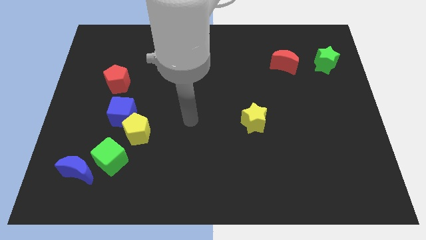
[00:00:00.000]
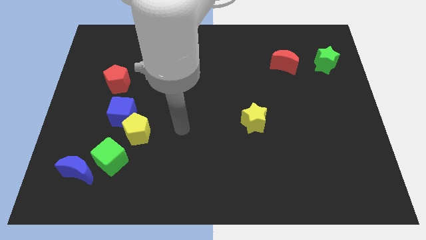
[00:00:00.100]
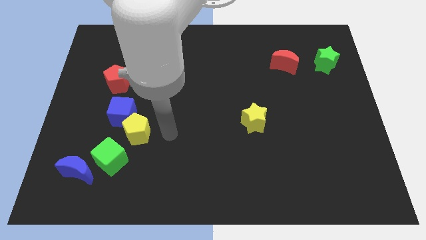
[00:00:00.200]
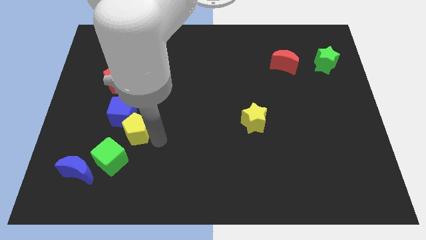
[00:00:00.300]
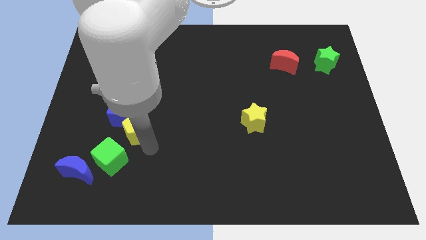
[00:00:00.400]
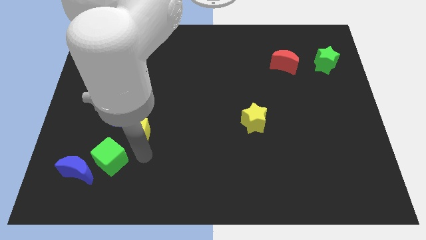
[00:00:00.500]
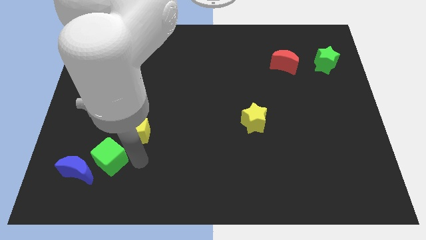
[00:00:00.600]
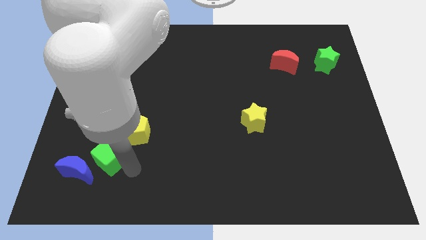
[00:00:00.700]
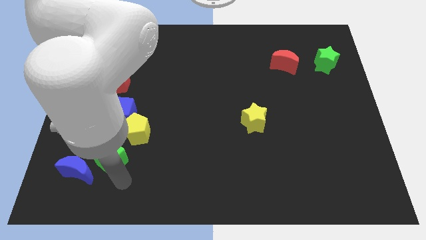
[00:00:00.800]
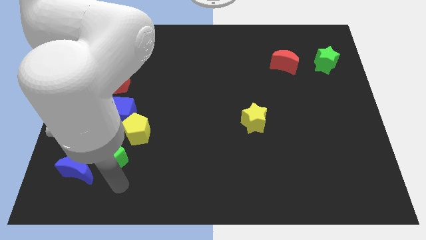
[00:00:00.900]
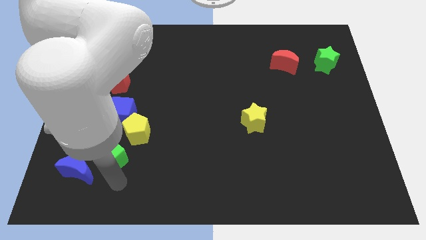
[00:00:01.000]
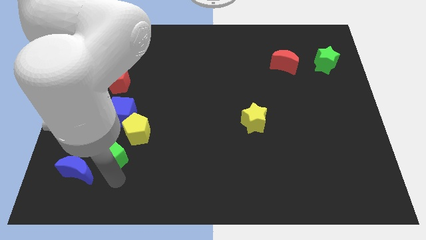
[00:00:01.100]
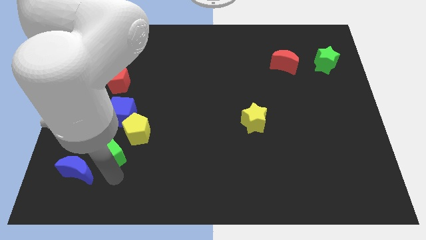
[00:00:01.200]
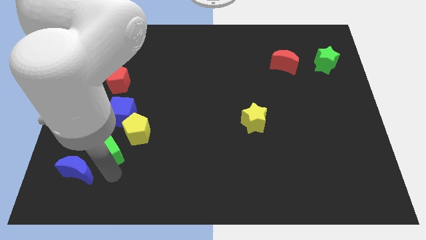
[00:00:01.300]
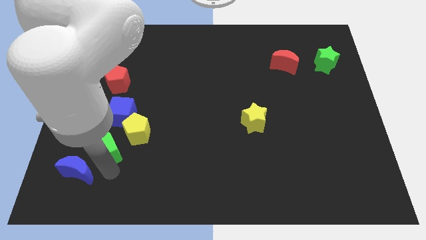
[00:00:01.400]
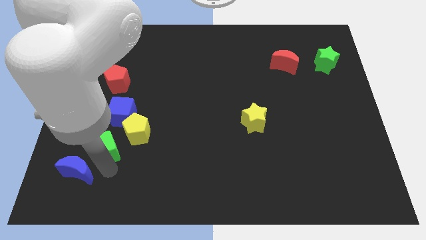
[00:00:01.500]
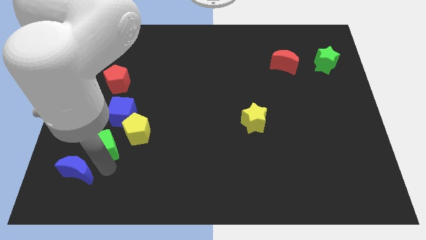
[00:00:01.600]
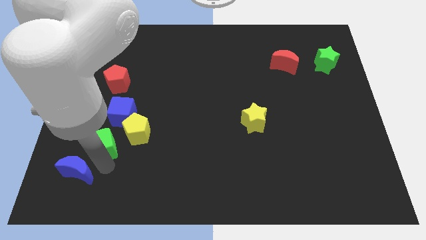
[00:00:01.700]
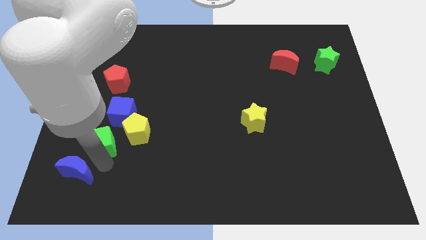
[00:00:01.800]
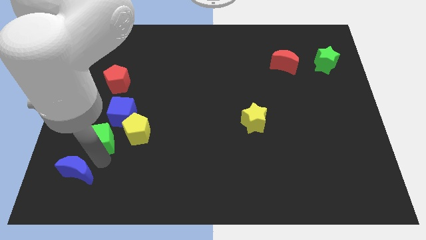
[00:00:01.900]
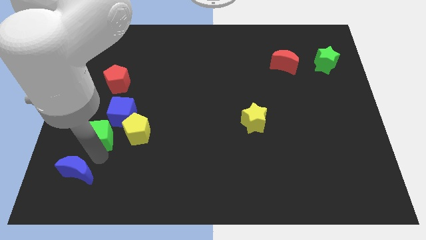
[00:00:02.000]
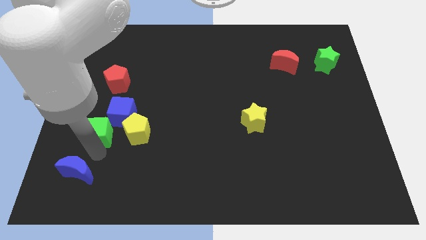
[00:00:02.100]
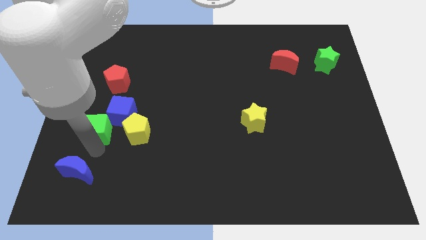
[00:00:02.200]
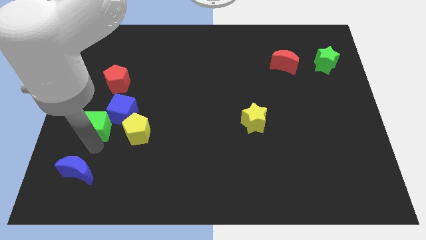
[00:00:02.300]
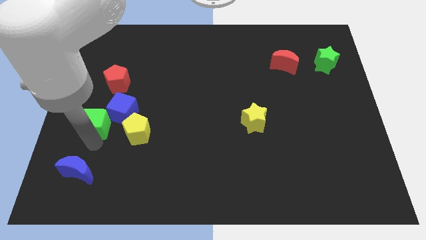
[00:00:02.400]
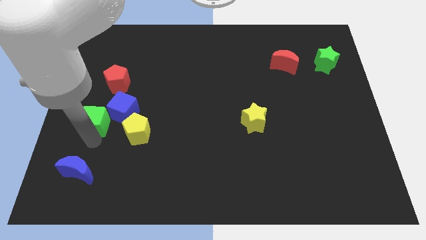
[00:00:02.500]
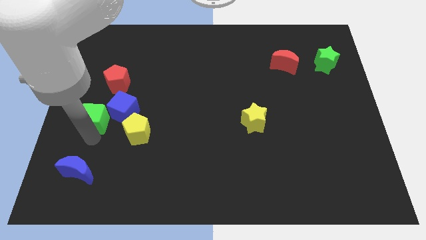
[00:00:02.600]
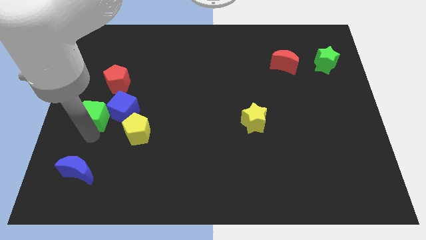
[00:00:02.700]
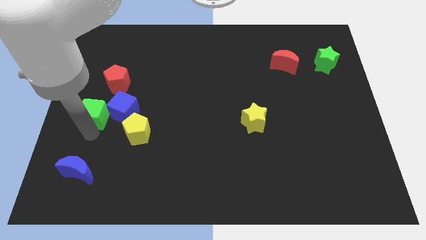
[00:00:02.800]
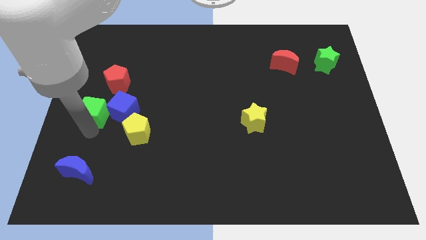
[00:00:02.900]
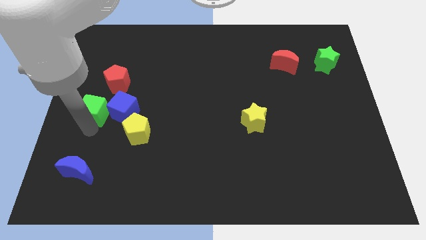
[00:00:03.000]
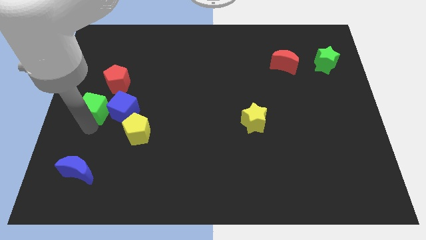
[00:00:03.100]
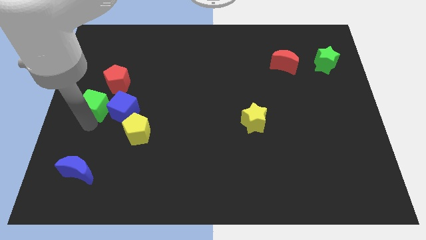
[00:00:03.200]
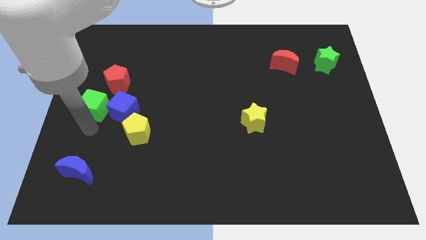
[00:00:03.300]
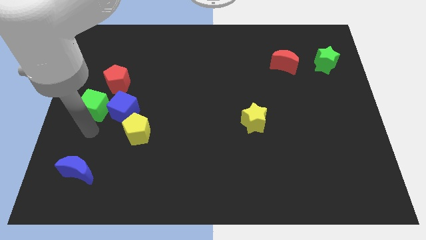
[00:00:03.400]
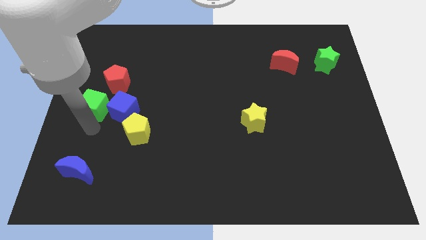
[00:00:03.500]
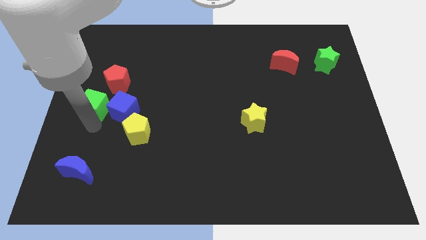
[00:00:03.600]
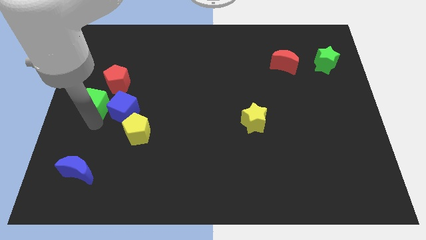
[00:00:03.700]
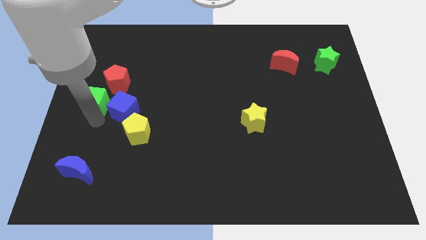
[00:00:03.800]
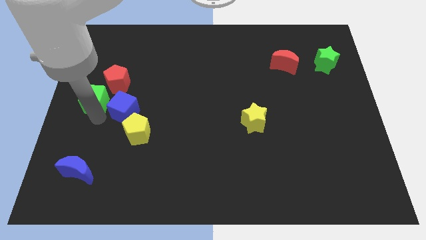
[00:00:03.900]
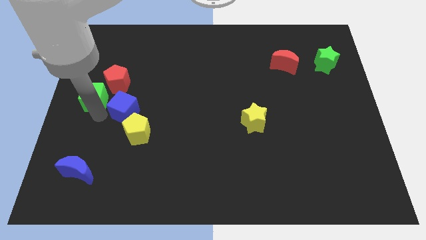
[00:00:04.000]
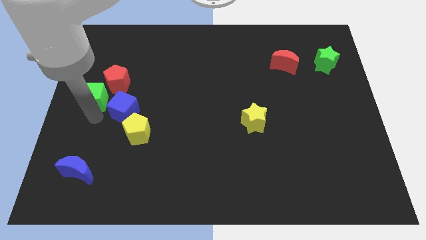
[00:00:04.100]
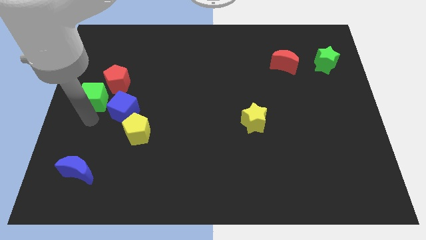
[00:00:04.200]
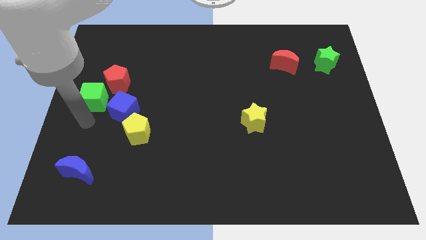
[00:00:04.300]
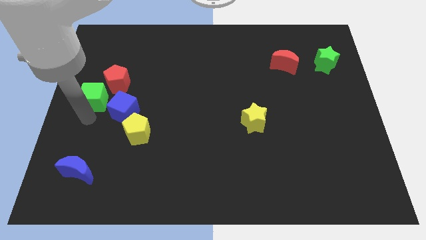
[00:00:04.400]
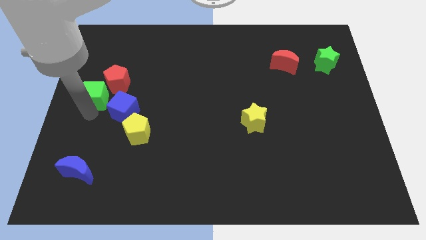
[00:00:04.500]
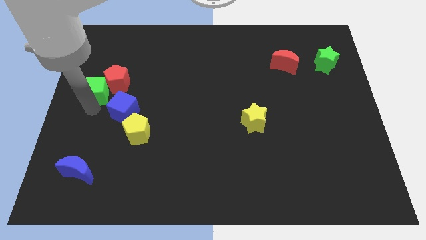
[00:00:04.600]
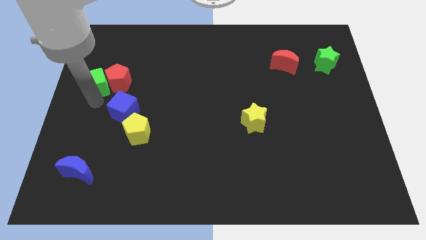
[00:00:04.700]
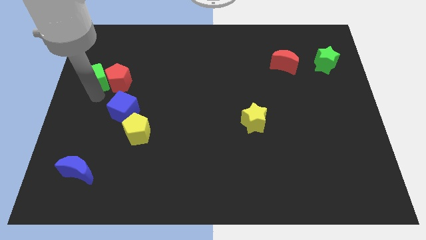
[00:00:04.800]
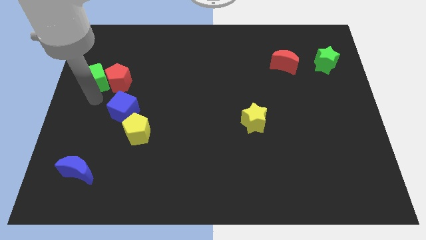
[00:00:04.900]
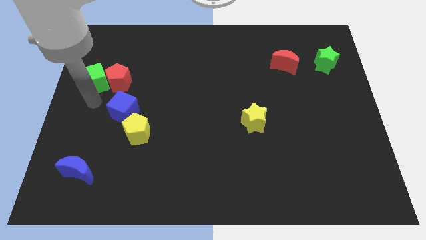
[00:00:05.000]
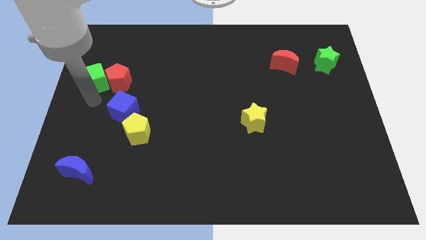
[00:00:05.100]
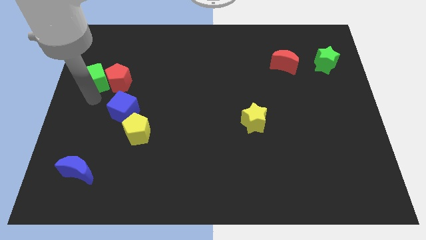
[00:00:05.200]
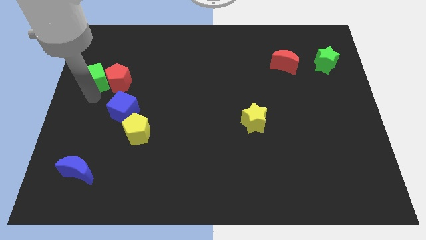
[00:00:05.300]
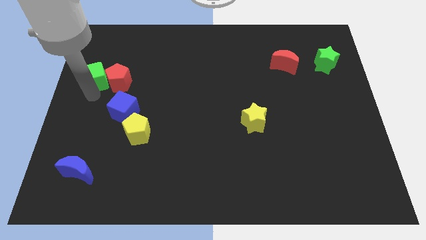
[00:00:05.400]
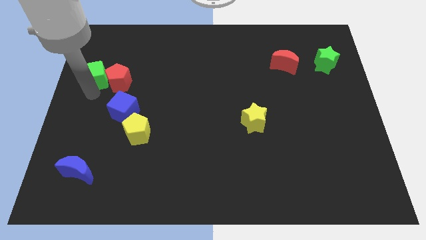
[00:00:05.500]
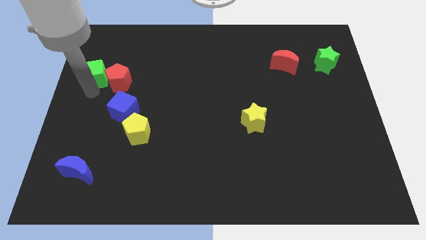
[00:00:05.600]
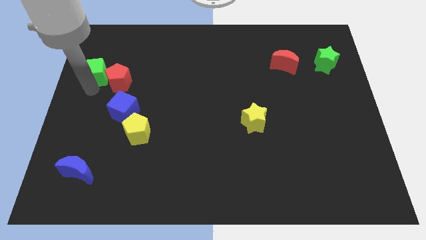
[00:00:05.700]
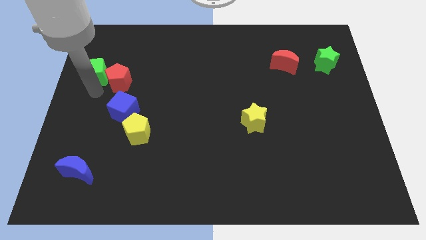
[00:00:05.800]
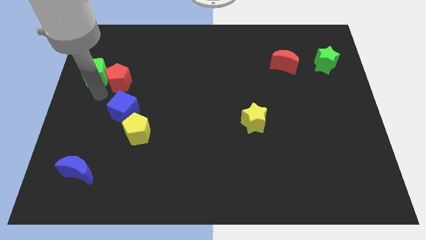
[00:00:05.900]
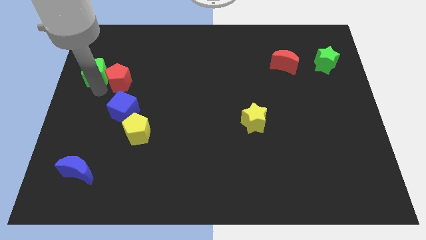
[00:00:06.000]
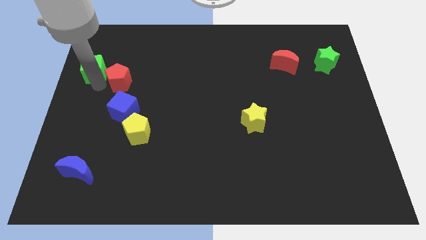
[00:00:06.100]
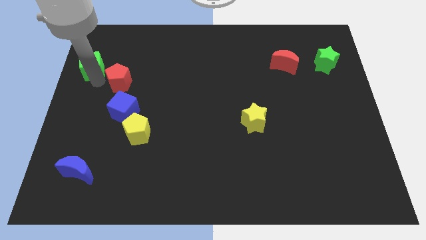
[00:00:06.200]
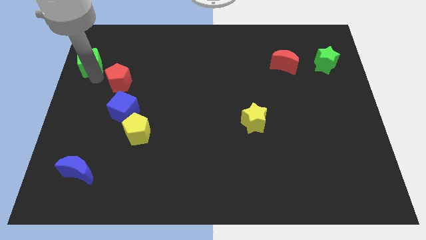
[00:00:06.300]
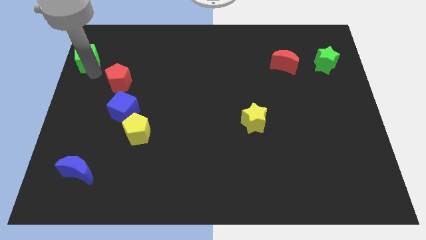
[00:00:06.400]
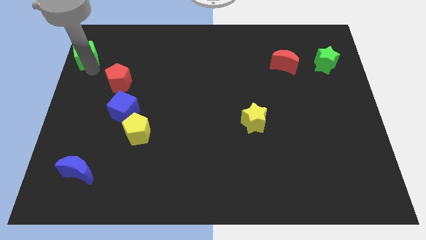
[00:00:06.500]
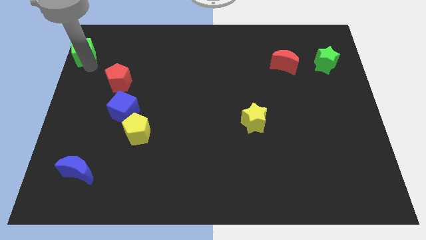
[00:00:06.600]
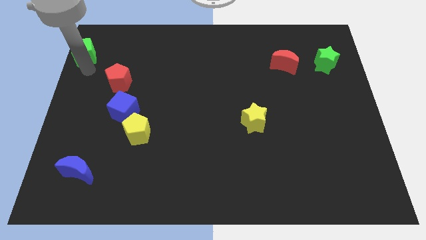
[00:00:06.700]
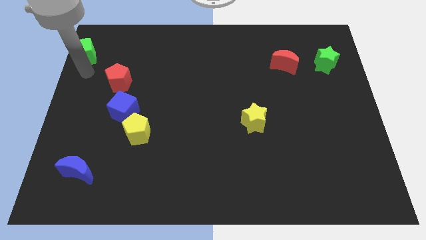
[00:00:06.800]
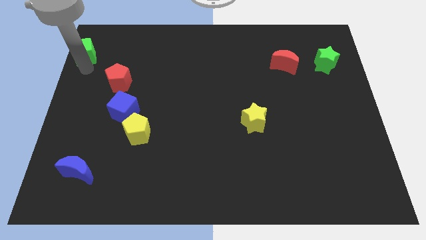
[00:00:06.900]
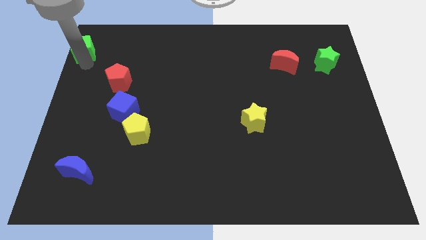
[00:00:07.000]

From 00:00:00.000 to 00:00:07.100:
move the green cube to the top left
